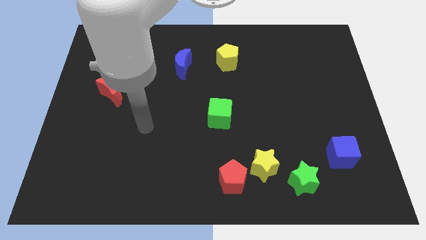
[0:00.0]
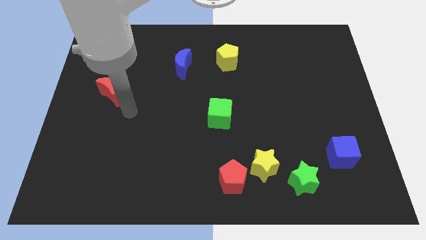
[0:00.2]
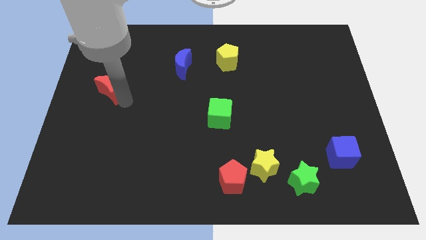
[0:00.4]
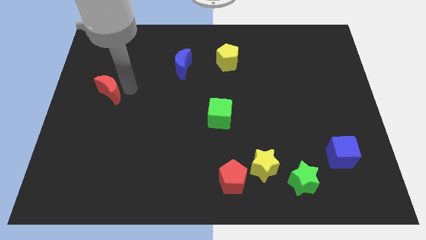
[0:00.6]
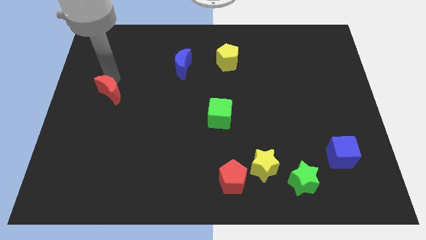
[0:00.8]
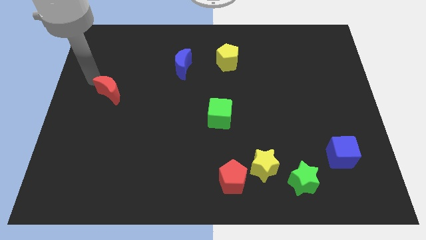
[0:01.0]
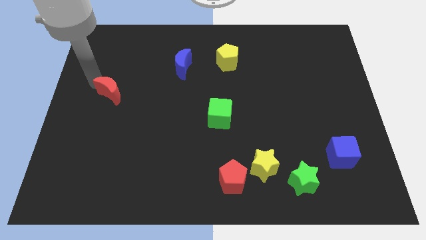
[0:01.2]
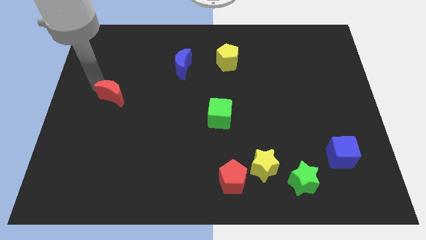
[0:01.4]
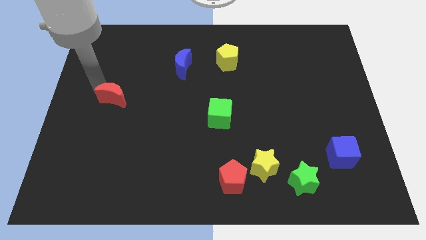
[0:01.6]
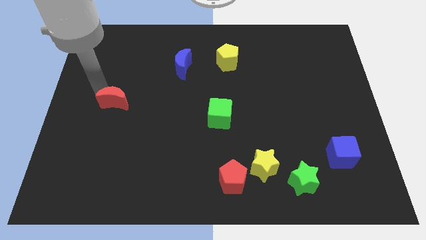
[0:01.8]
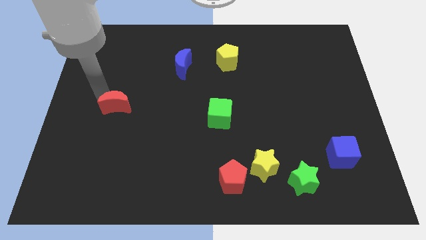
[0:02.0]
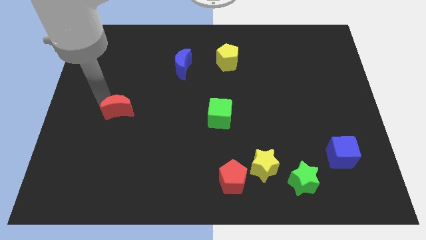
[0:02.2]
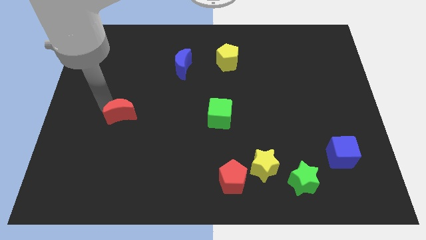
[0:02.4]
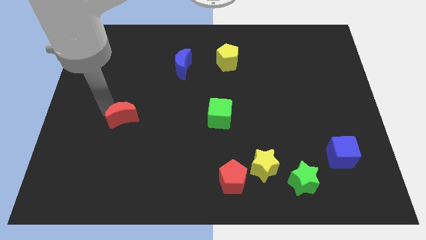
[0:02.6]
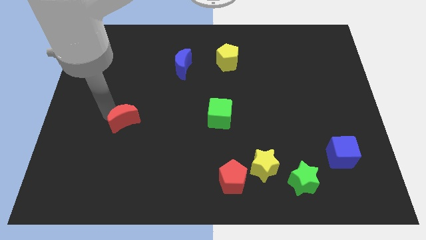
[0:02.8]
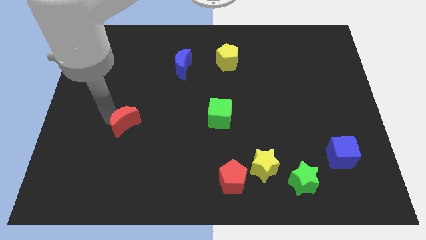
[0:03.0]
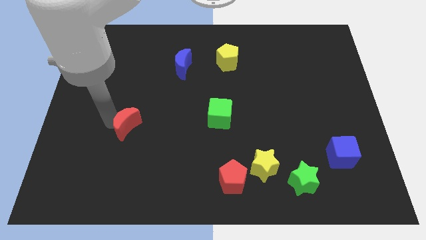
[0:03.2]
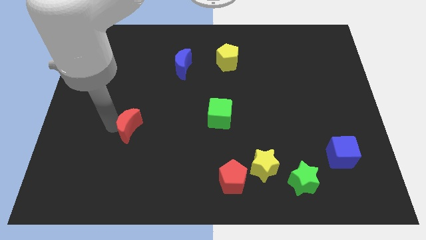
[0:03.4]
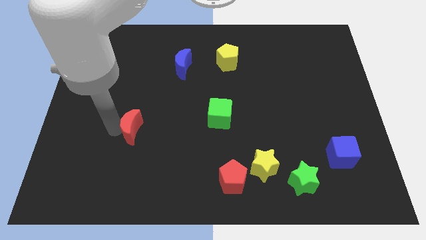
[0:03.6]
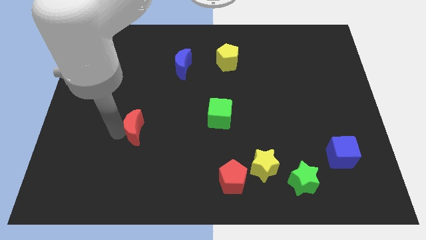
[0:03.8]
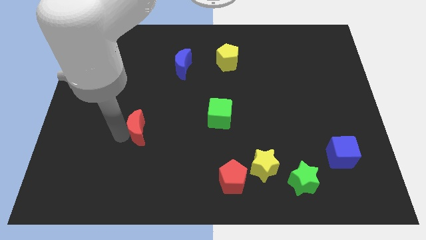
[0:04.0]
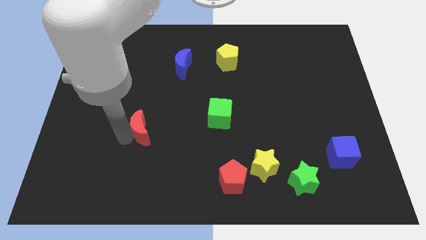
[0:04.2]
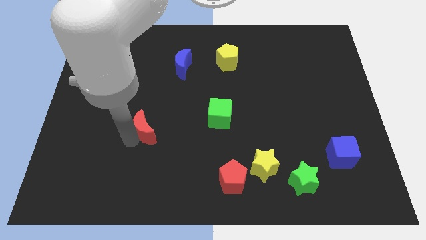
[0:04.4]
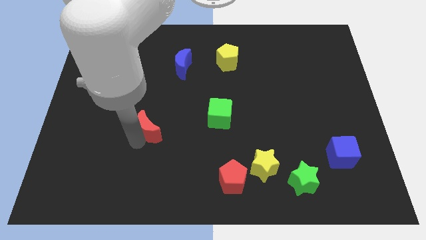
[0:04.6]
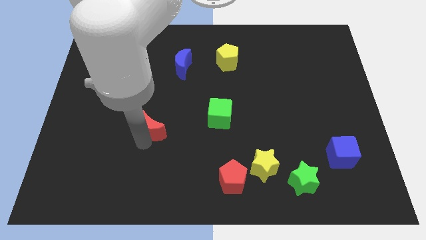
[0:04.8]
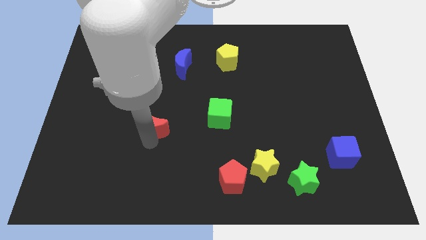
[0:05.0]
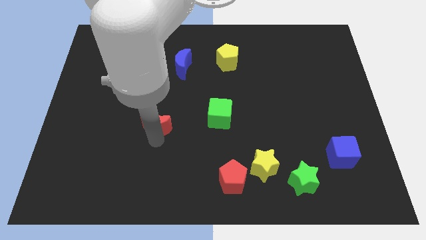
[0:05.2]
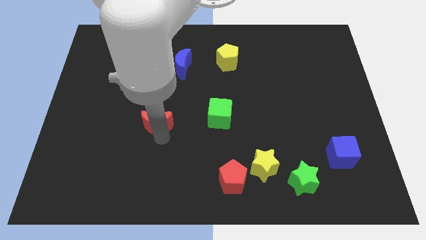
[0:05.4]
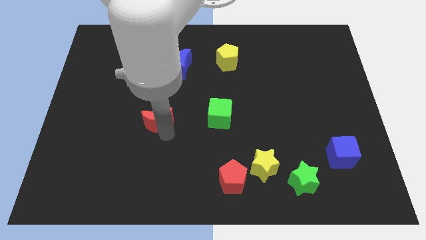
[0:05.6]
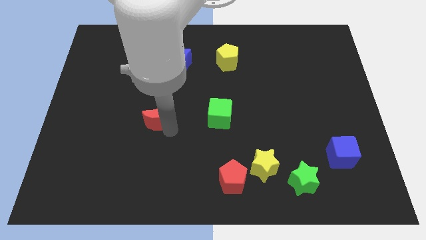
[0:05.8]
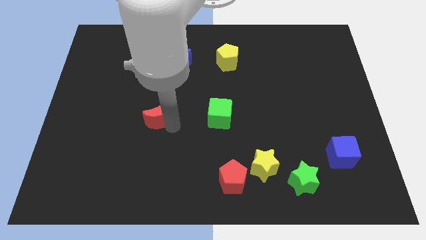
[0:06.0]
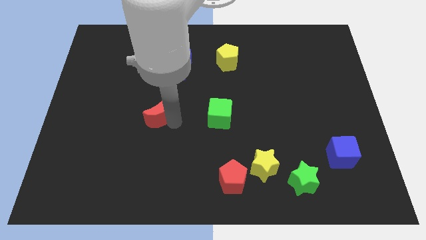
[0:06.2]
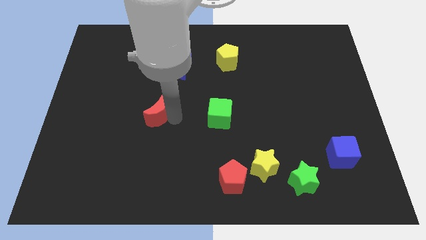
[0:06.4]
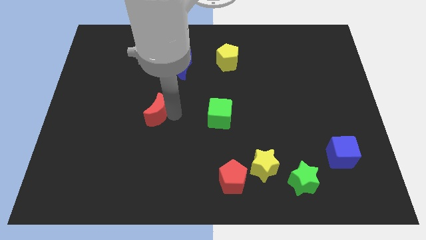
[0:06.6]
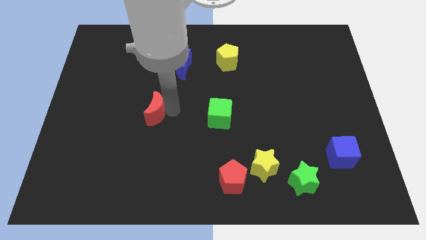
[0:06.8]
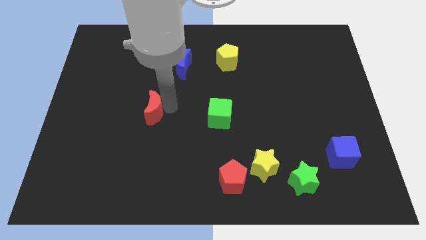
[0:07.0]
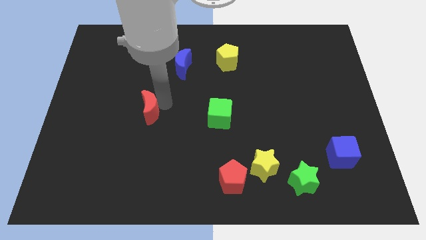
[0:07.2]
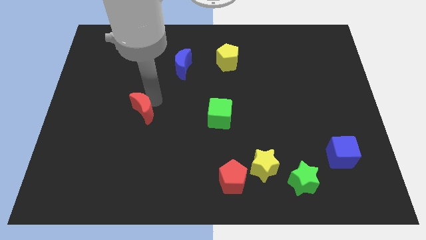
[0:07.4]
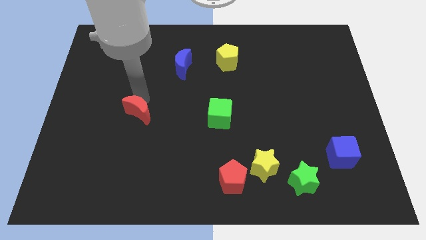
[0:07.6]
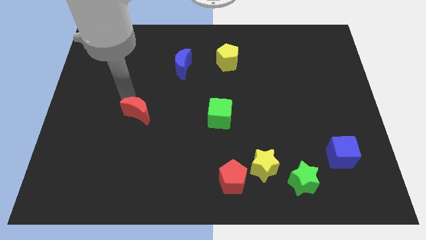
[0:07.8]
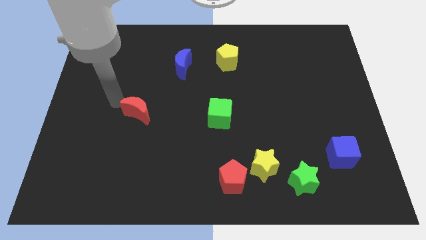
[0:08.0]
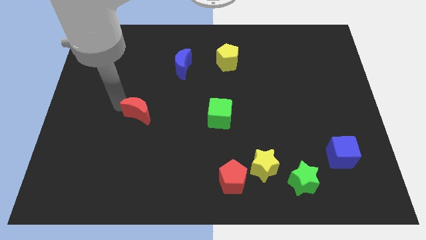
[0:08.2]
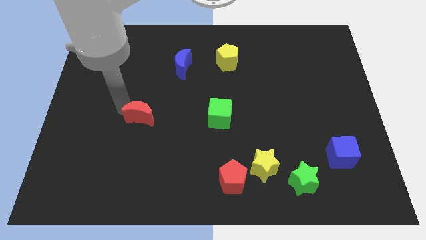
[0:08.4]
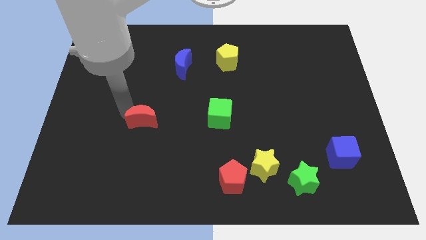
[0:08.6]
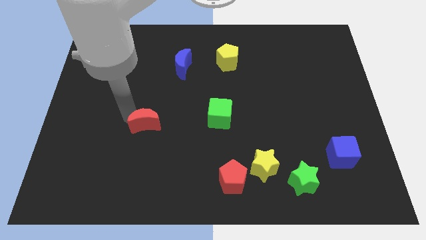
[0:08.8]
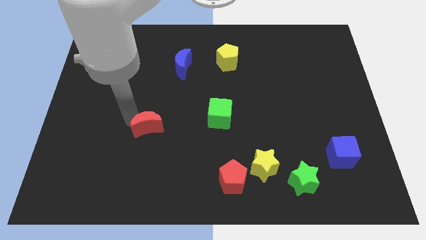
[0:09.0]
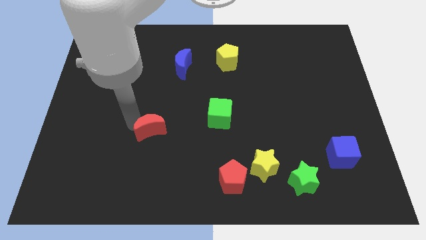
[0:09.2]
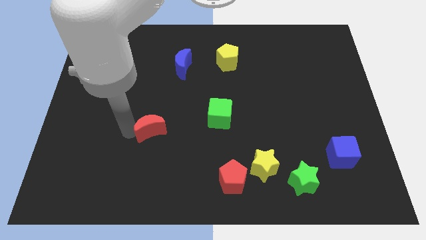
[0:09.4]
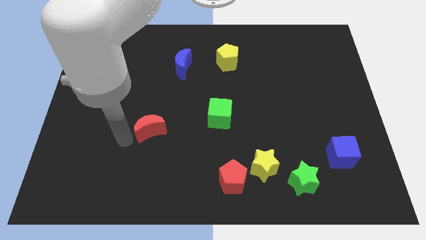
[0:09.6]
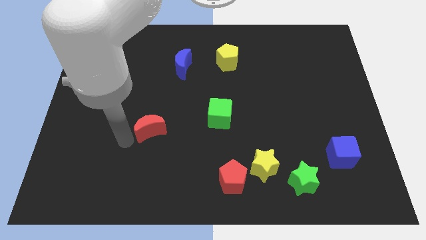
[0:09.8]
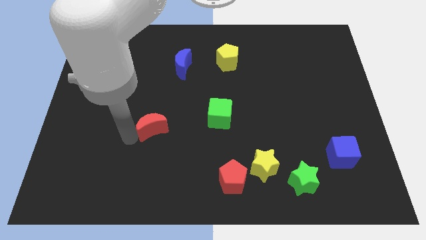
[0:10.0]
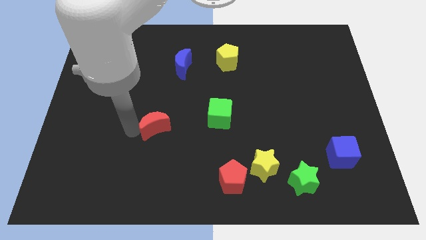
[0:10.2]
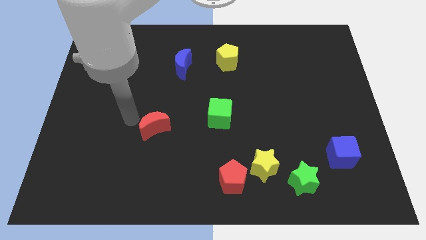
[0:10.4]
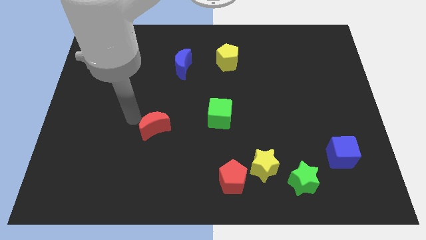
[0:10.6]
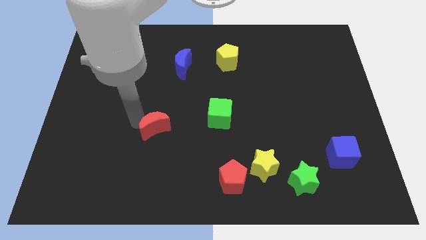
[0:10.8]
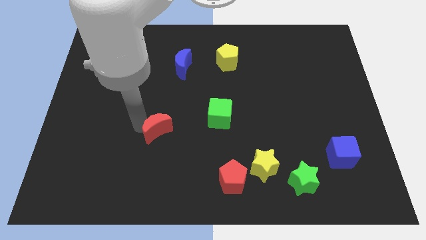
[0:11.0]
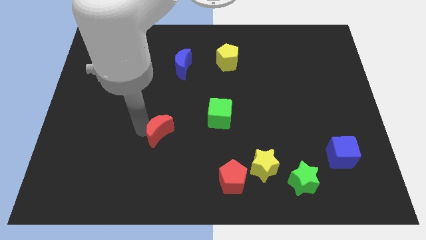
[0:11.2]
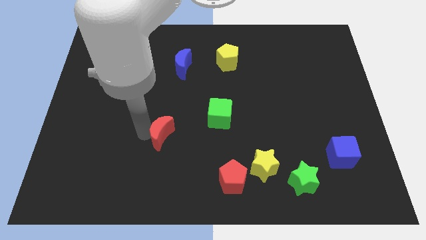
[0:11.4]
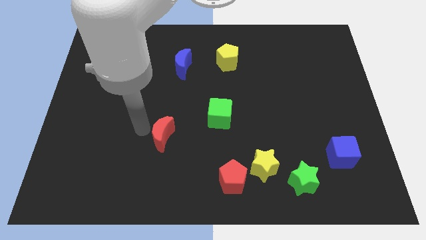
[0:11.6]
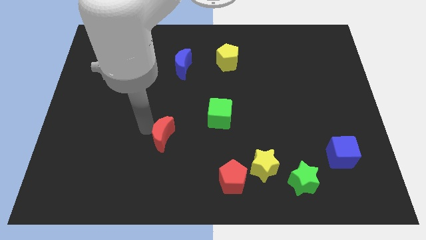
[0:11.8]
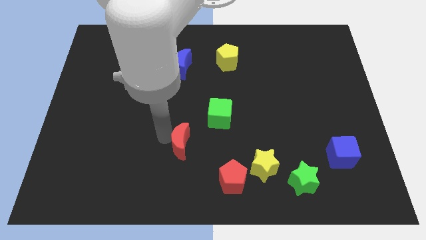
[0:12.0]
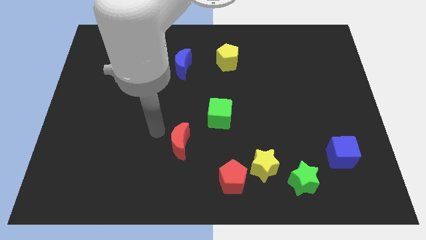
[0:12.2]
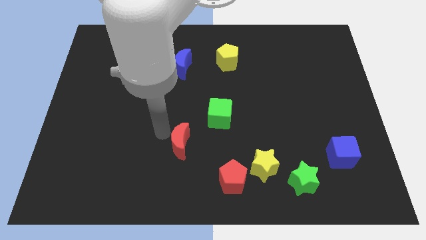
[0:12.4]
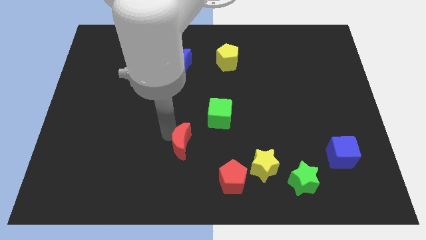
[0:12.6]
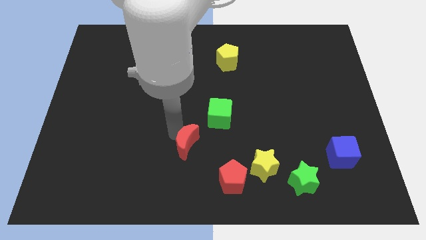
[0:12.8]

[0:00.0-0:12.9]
push the red moon to the top left of the red pentagon

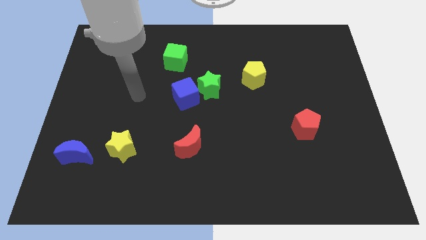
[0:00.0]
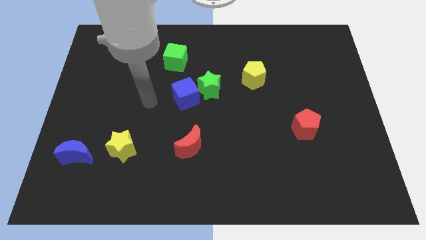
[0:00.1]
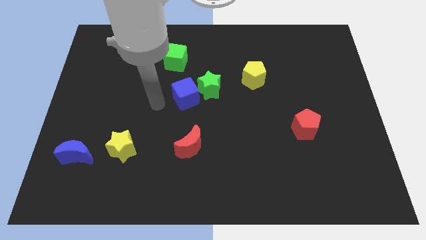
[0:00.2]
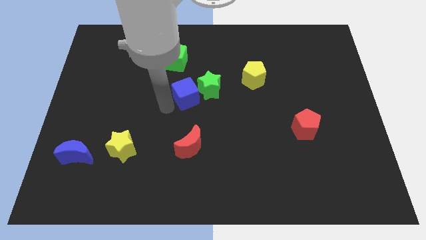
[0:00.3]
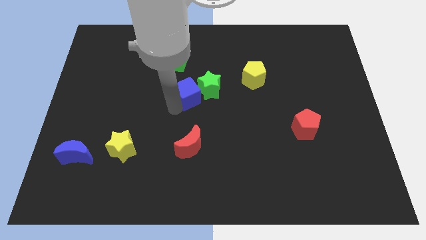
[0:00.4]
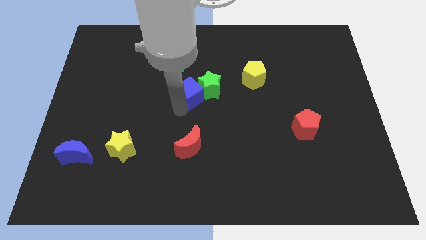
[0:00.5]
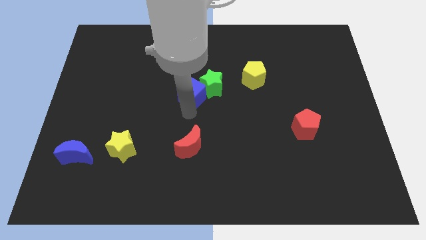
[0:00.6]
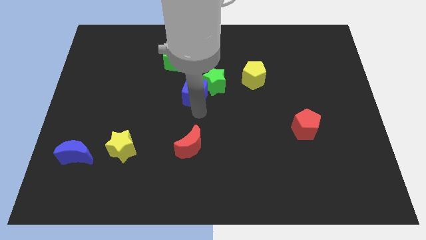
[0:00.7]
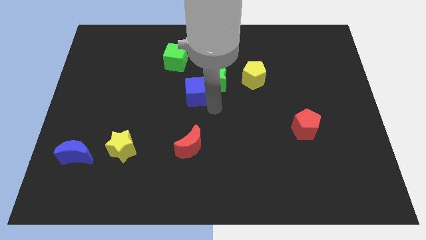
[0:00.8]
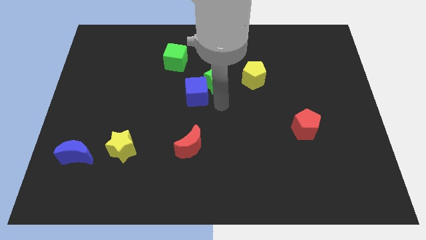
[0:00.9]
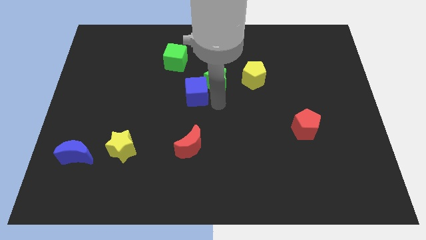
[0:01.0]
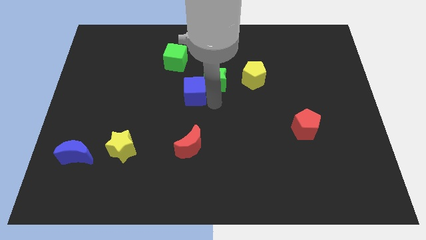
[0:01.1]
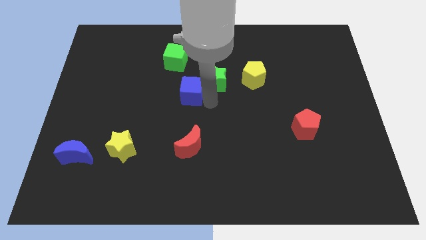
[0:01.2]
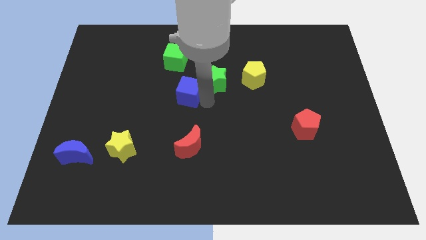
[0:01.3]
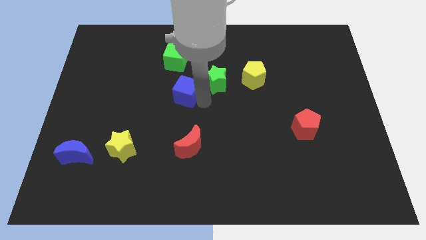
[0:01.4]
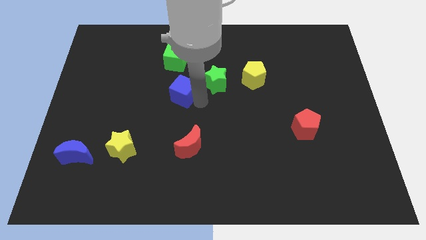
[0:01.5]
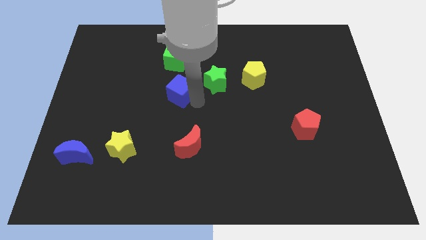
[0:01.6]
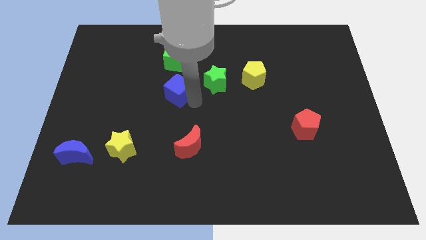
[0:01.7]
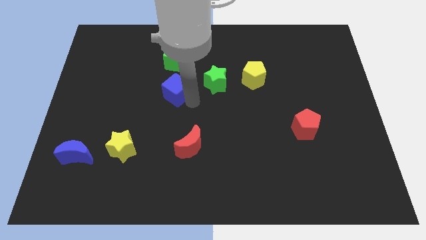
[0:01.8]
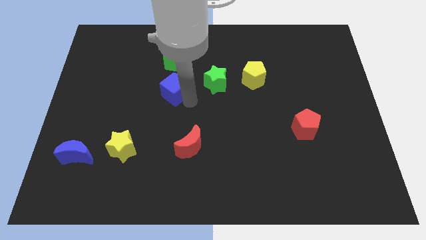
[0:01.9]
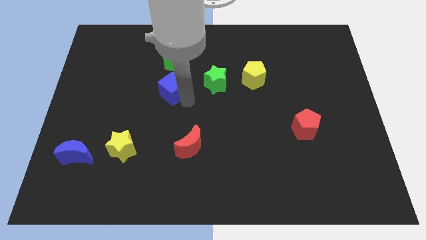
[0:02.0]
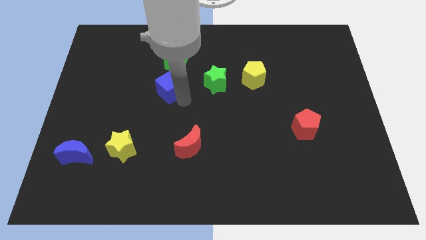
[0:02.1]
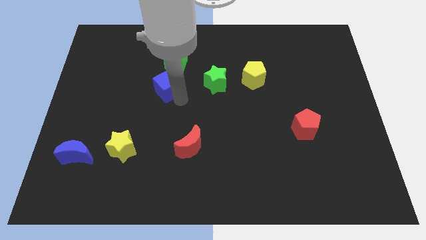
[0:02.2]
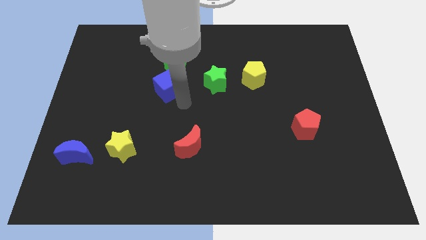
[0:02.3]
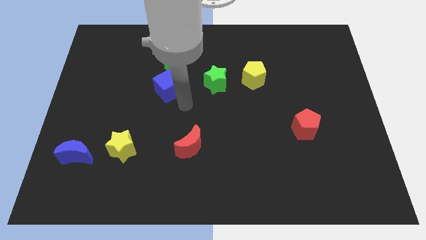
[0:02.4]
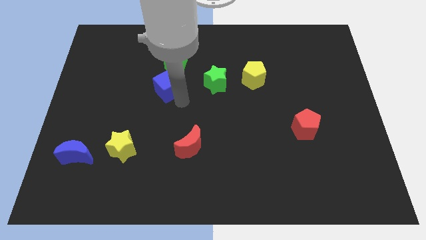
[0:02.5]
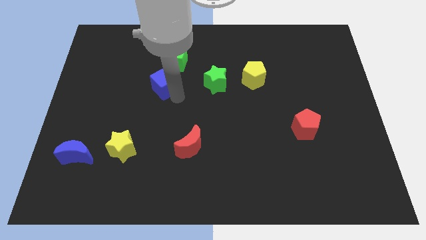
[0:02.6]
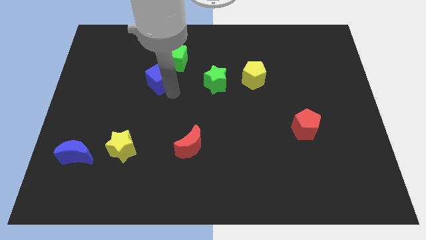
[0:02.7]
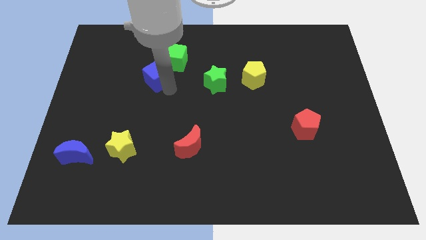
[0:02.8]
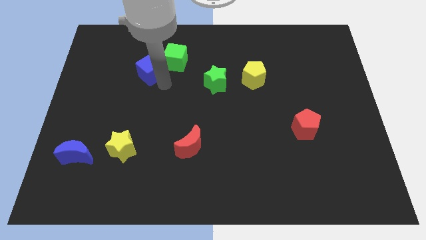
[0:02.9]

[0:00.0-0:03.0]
put the blue cube to the left side of the green cube
